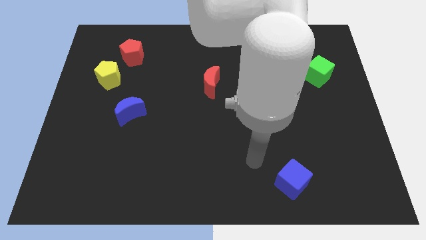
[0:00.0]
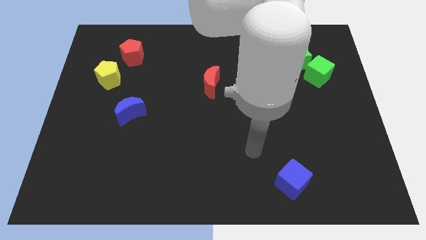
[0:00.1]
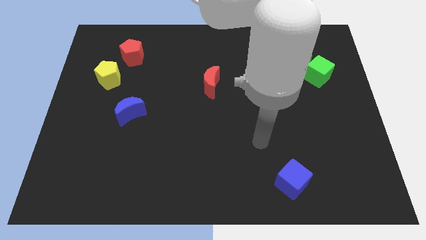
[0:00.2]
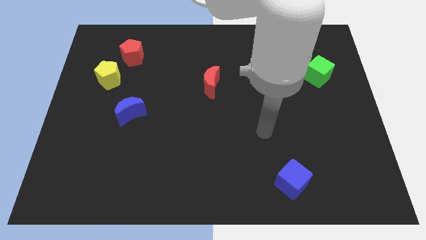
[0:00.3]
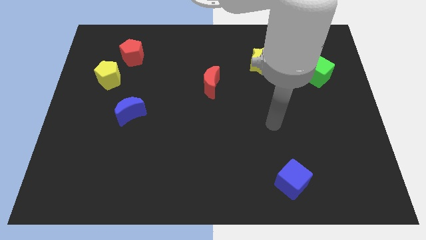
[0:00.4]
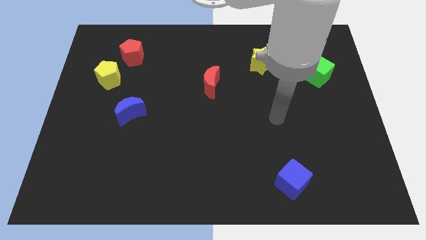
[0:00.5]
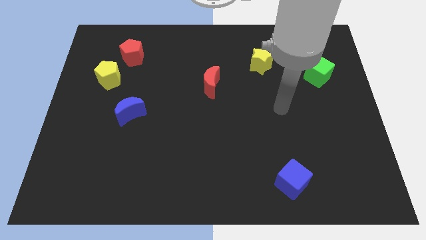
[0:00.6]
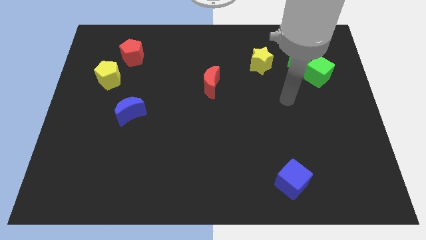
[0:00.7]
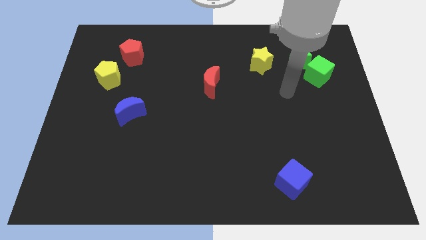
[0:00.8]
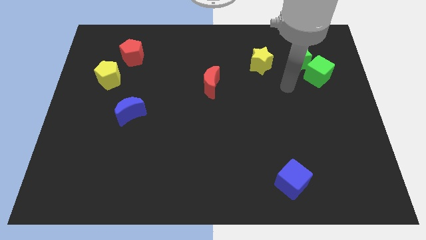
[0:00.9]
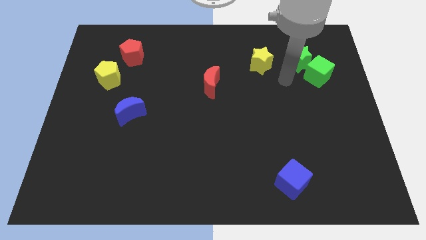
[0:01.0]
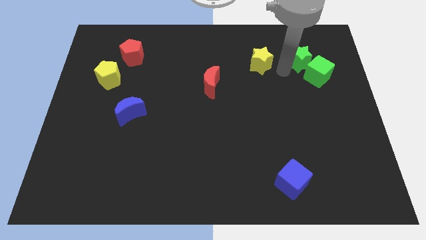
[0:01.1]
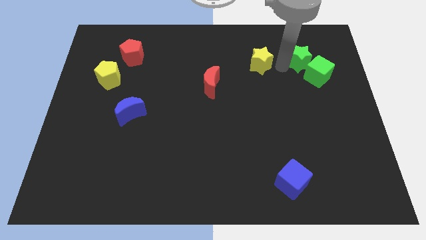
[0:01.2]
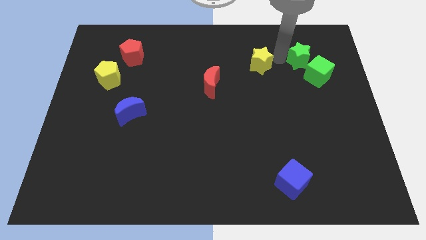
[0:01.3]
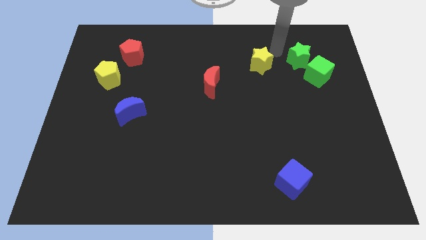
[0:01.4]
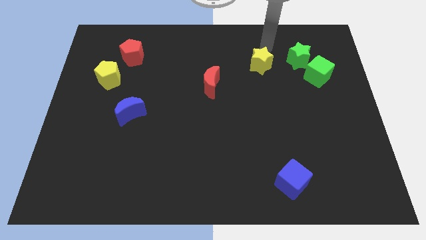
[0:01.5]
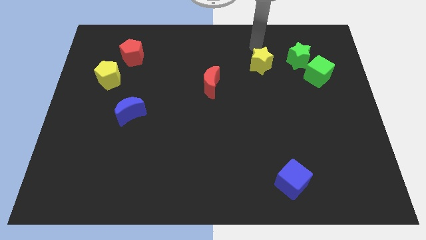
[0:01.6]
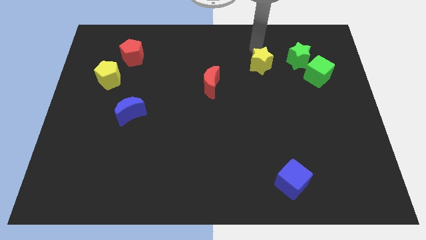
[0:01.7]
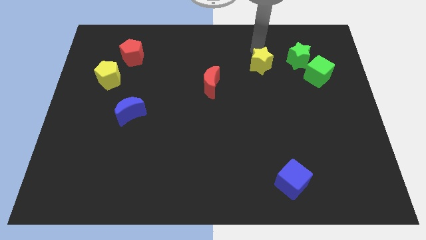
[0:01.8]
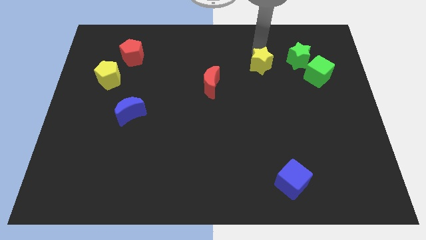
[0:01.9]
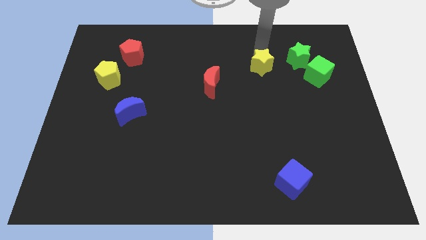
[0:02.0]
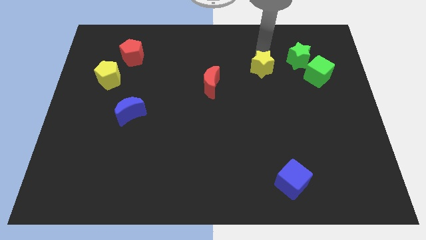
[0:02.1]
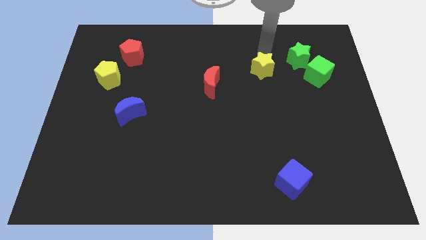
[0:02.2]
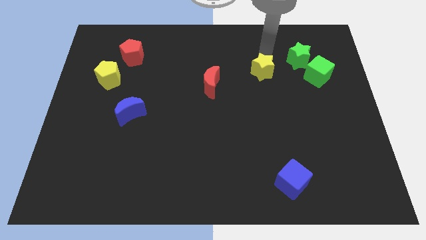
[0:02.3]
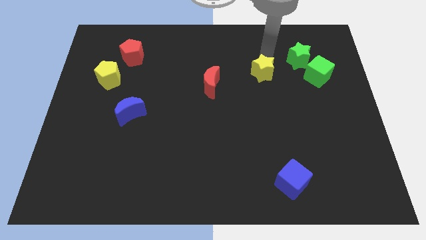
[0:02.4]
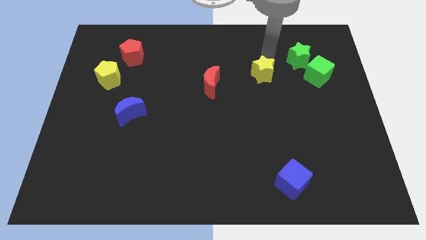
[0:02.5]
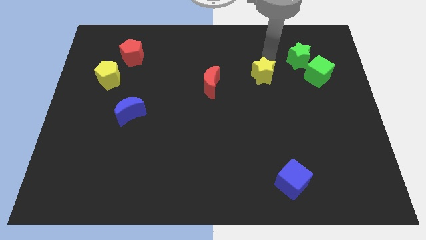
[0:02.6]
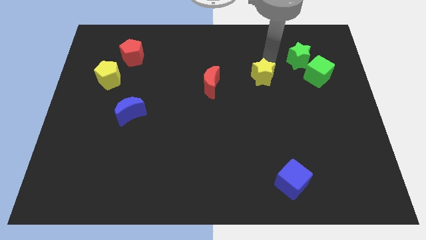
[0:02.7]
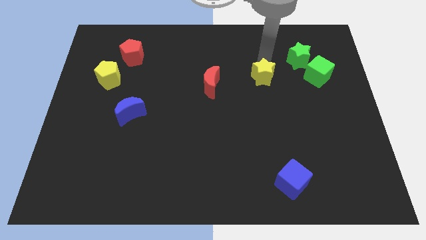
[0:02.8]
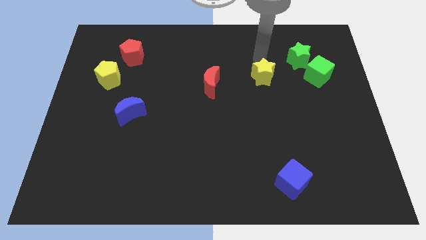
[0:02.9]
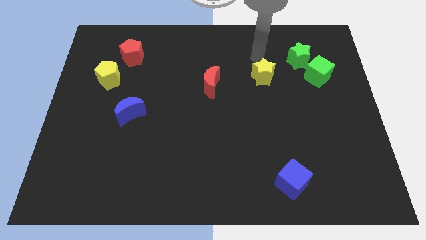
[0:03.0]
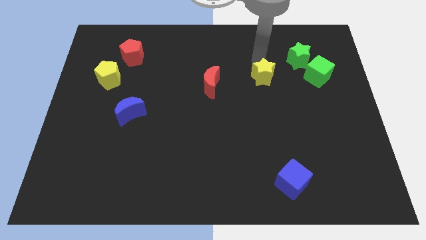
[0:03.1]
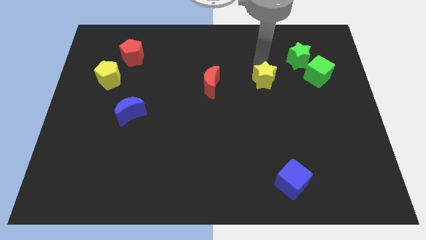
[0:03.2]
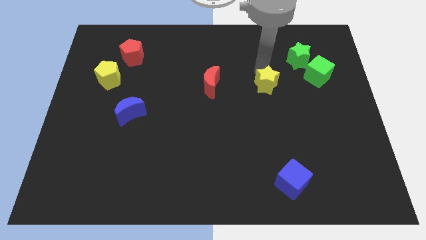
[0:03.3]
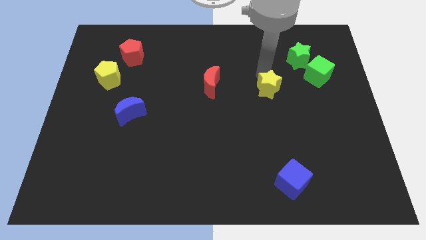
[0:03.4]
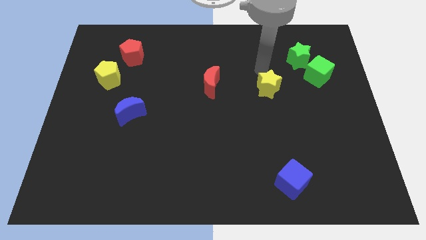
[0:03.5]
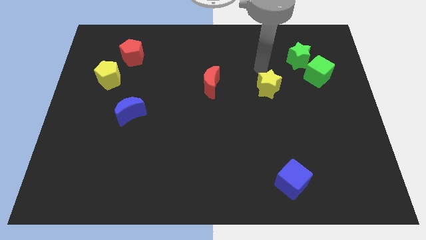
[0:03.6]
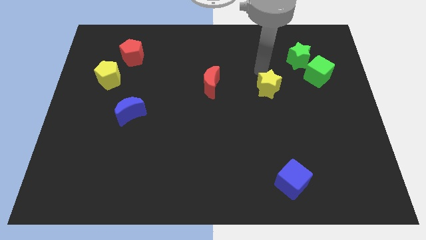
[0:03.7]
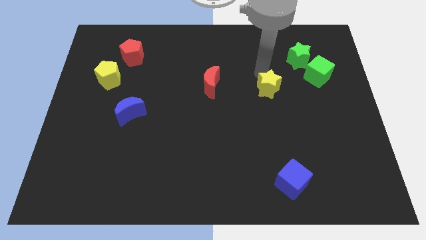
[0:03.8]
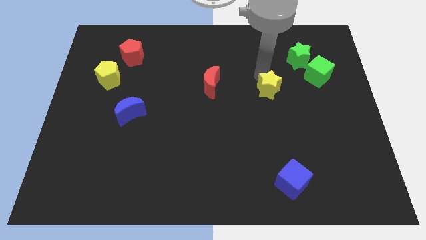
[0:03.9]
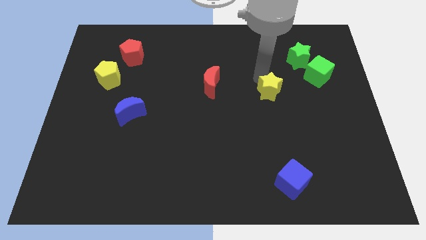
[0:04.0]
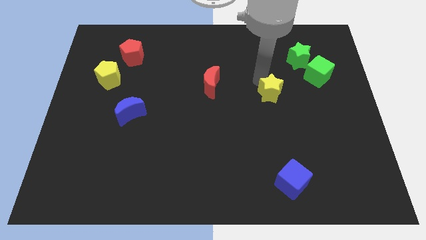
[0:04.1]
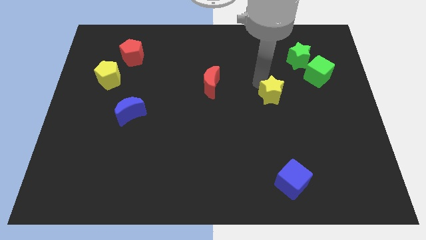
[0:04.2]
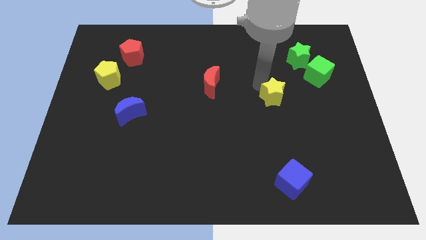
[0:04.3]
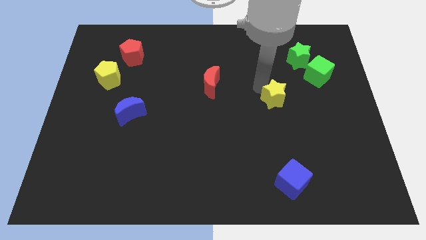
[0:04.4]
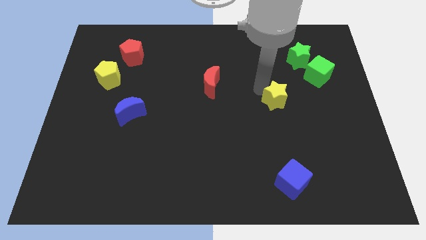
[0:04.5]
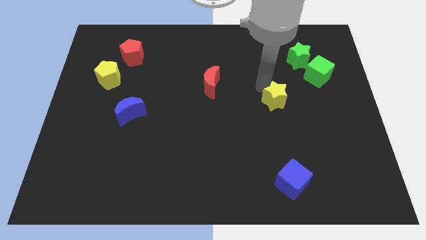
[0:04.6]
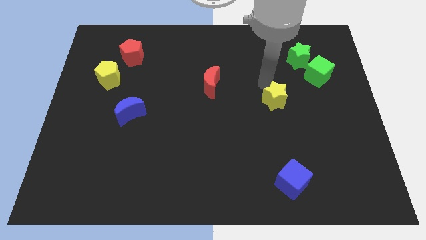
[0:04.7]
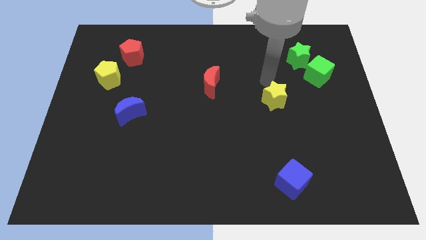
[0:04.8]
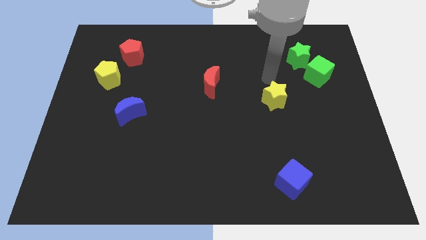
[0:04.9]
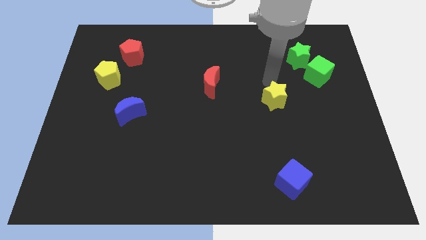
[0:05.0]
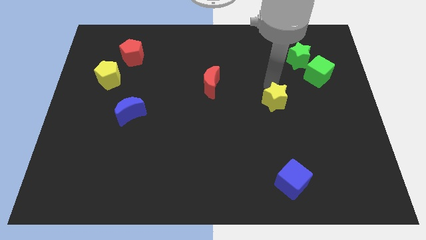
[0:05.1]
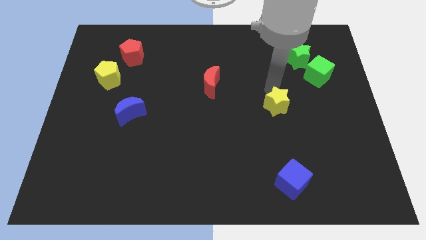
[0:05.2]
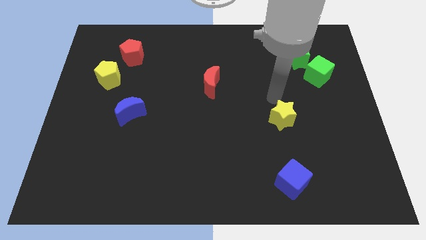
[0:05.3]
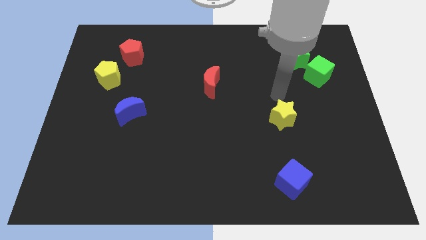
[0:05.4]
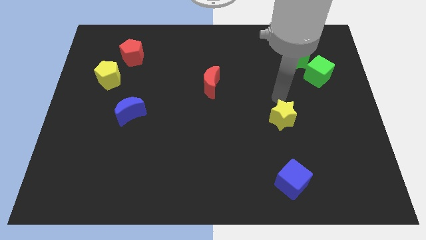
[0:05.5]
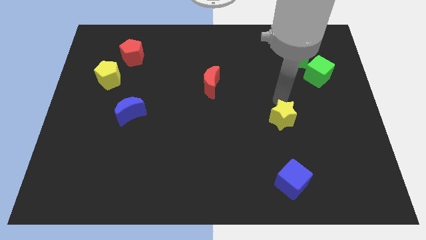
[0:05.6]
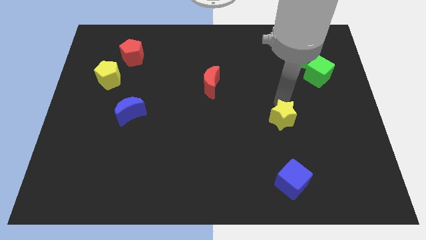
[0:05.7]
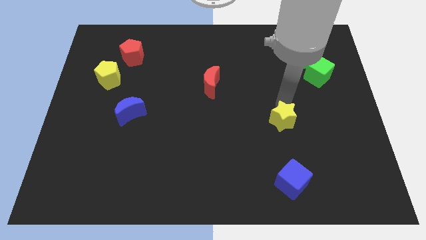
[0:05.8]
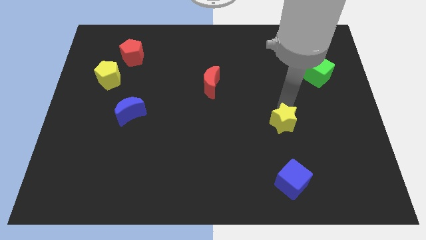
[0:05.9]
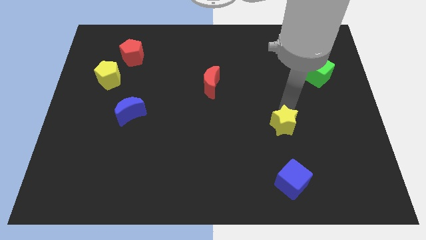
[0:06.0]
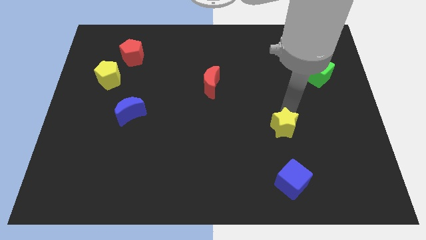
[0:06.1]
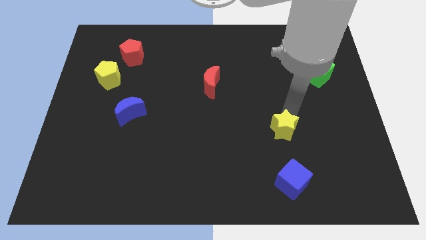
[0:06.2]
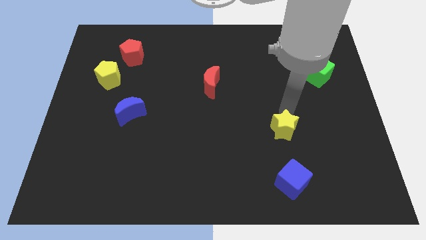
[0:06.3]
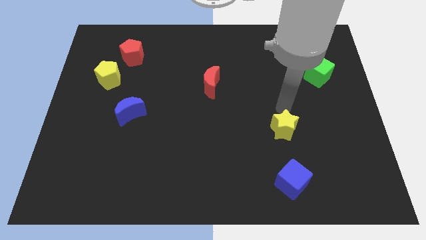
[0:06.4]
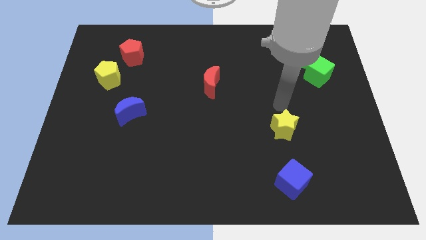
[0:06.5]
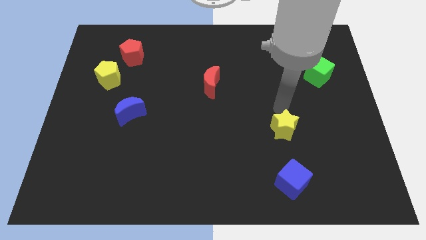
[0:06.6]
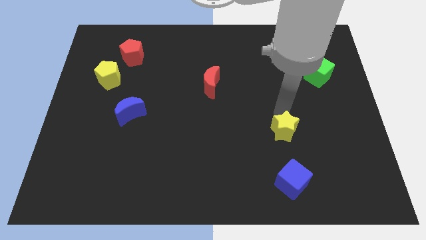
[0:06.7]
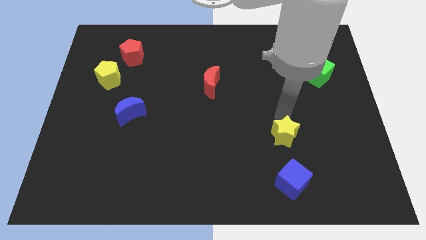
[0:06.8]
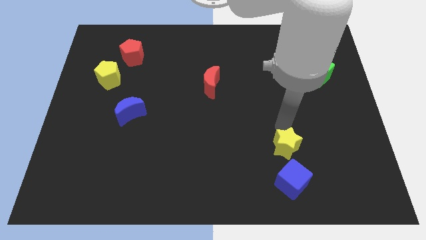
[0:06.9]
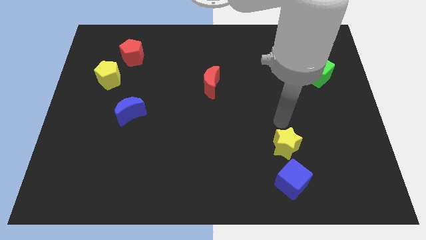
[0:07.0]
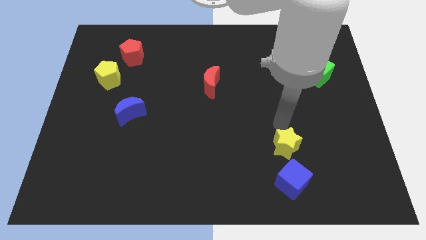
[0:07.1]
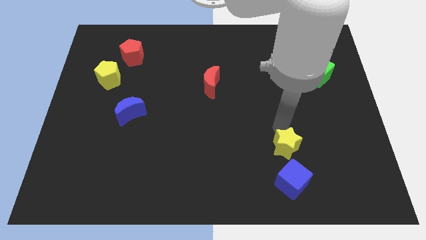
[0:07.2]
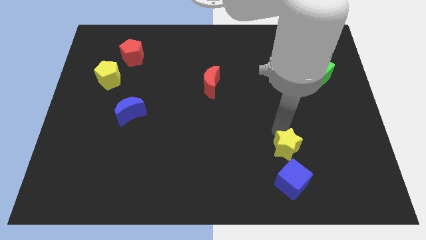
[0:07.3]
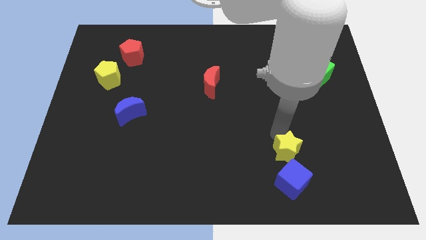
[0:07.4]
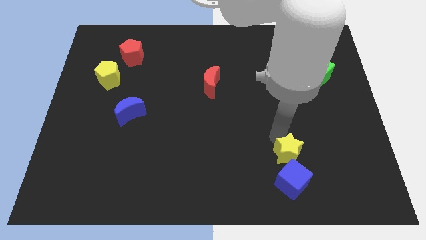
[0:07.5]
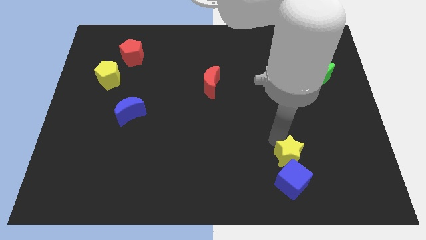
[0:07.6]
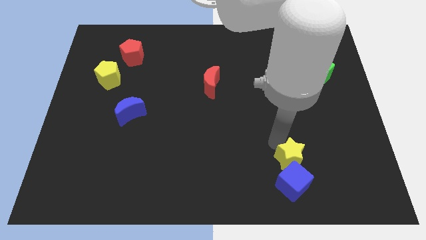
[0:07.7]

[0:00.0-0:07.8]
push the yellow star close to the blue cube
